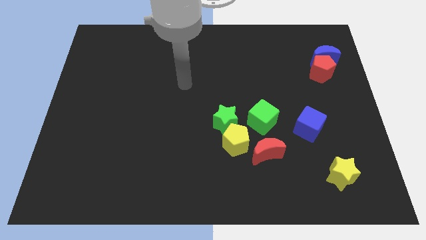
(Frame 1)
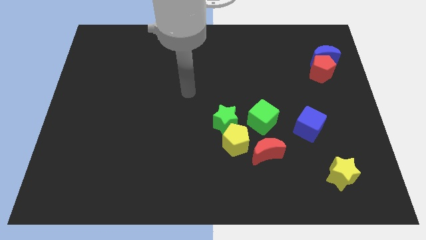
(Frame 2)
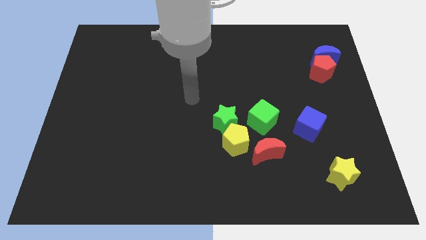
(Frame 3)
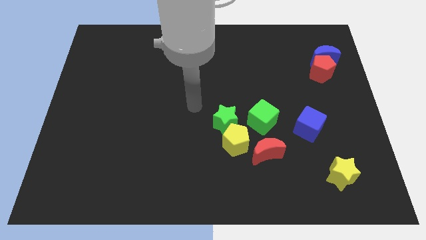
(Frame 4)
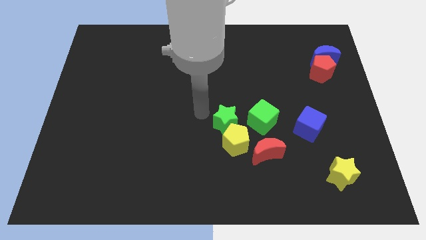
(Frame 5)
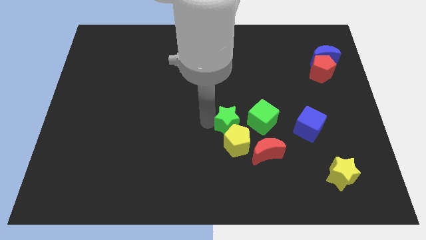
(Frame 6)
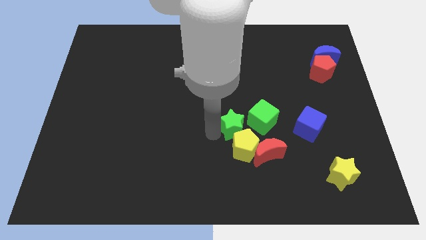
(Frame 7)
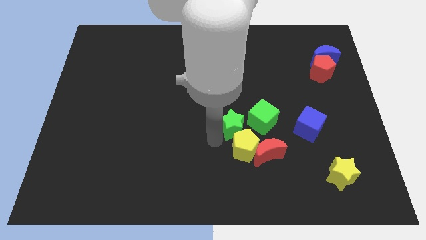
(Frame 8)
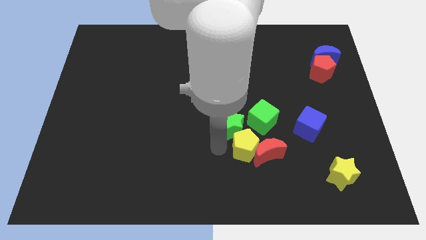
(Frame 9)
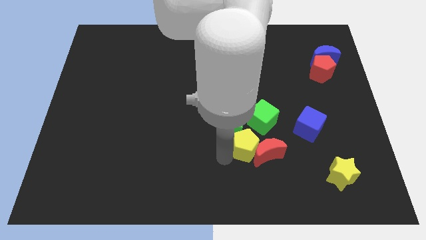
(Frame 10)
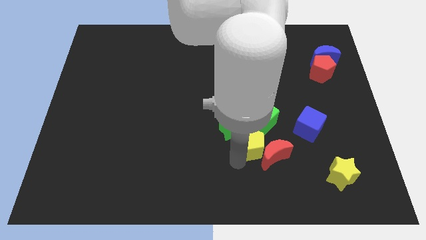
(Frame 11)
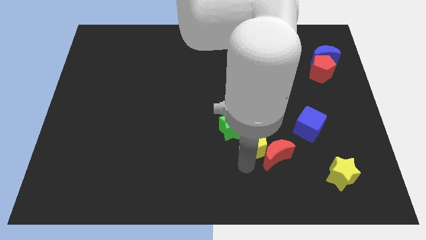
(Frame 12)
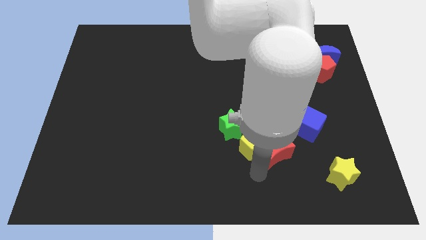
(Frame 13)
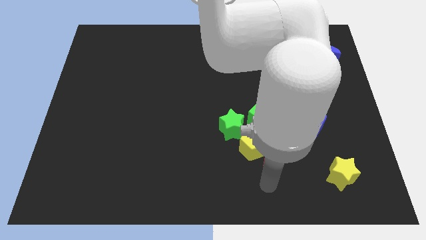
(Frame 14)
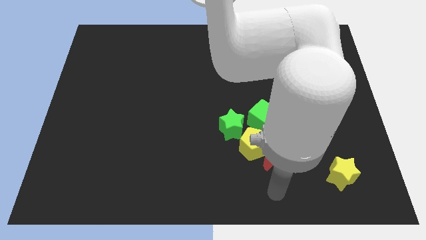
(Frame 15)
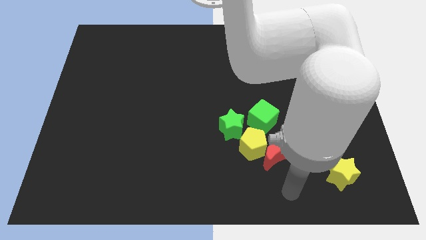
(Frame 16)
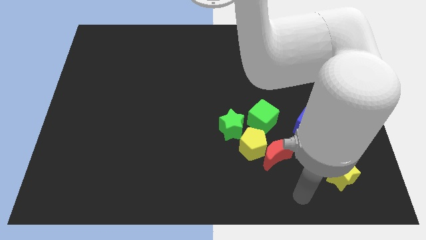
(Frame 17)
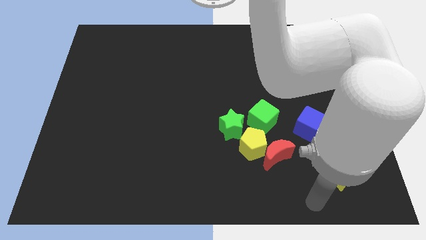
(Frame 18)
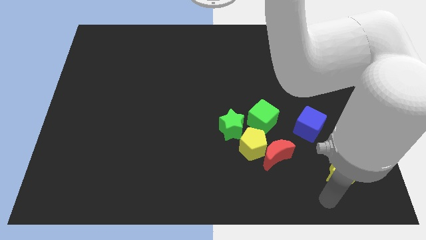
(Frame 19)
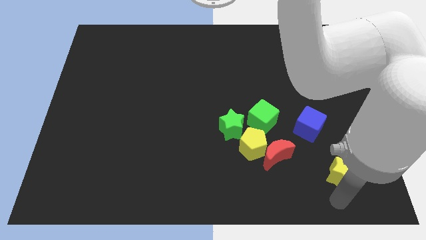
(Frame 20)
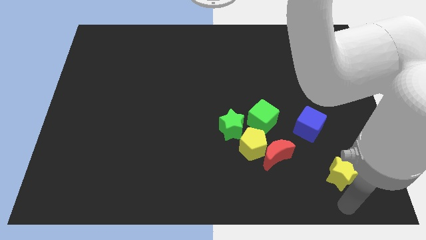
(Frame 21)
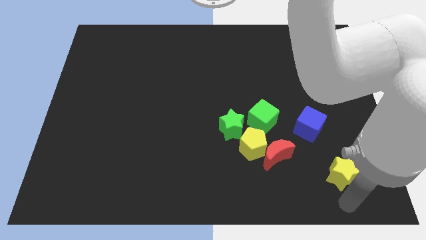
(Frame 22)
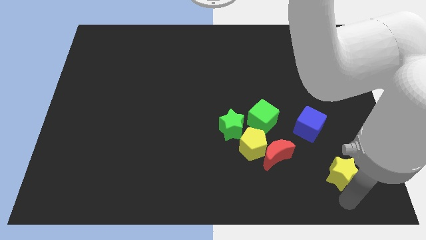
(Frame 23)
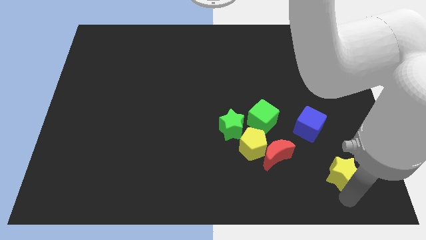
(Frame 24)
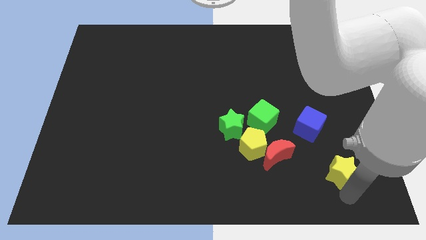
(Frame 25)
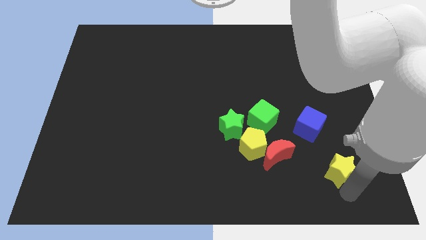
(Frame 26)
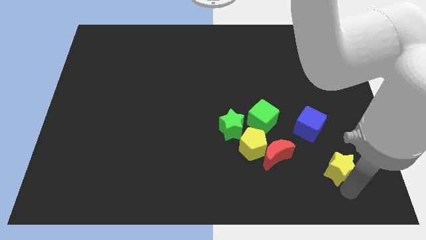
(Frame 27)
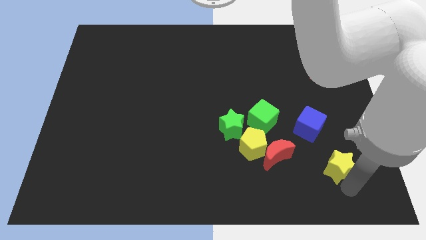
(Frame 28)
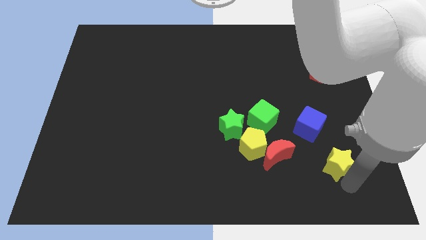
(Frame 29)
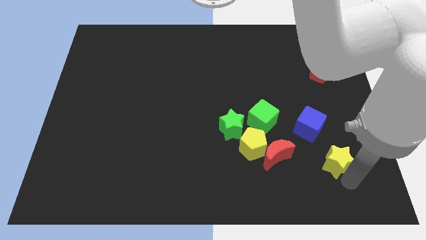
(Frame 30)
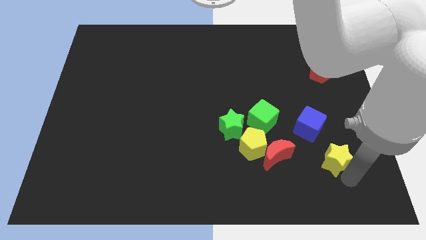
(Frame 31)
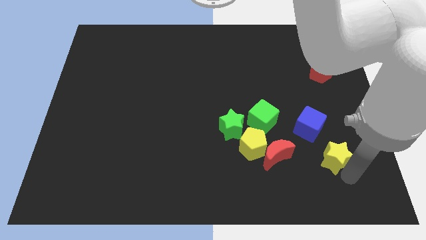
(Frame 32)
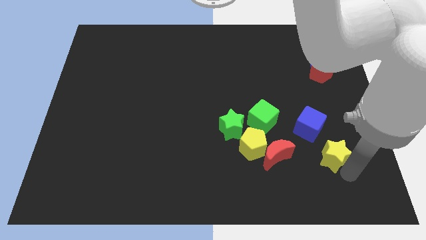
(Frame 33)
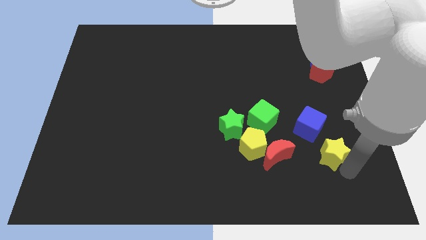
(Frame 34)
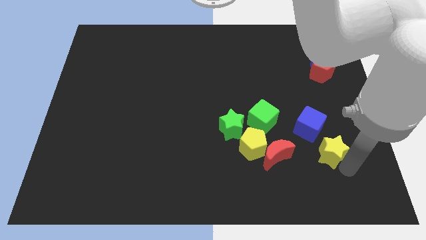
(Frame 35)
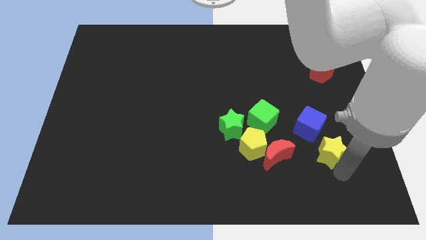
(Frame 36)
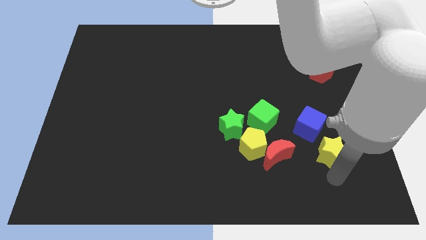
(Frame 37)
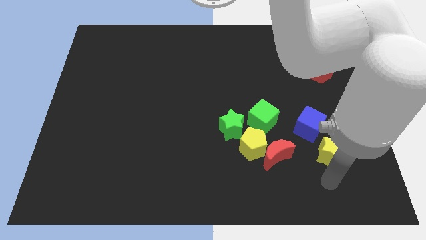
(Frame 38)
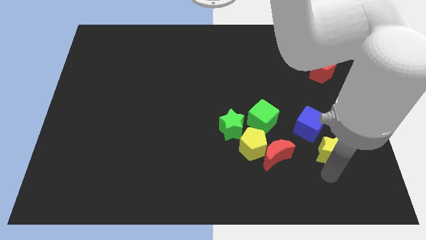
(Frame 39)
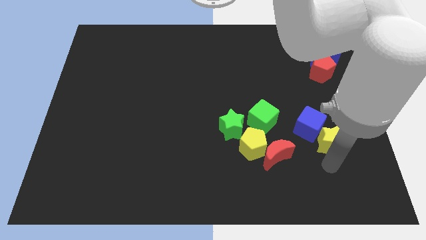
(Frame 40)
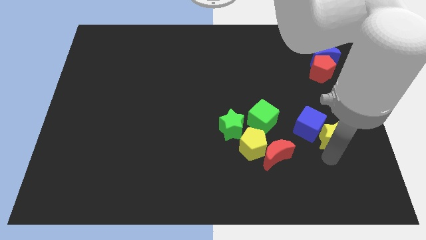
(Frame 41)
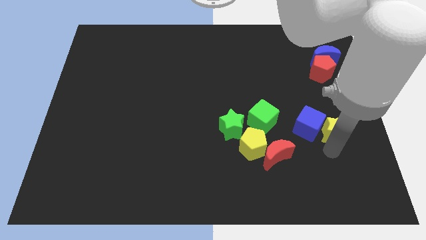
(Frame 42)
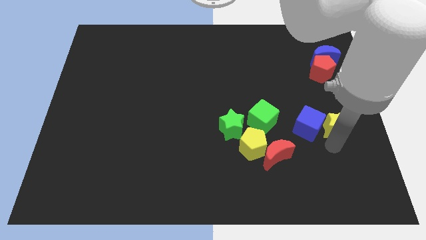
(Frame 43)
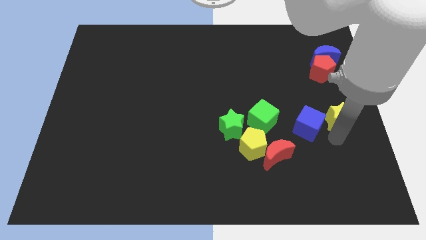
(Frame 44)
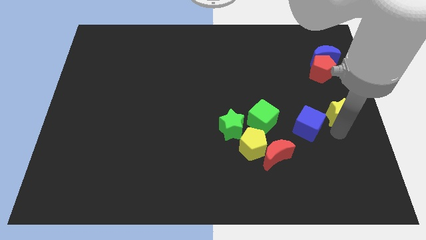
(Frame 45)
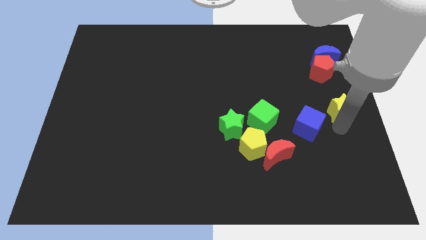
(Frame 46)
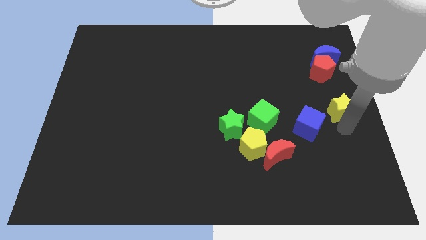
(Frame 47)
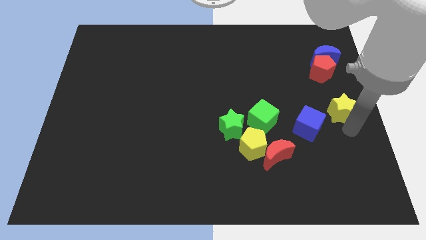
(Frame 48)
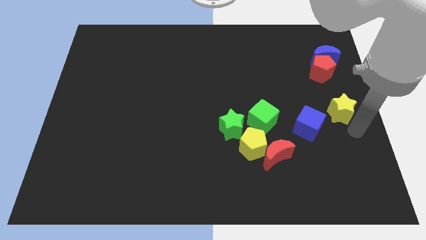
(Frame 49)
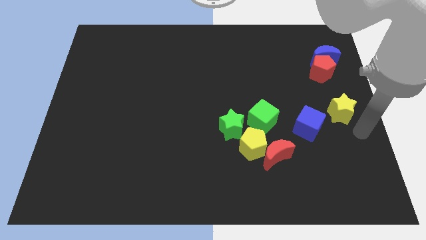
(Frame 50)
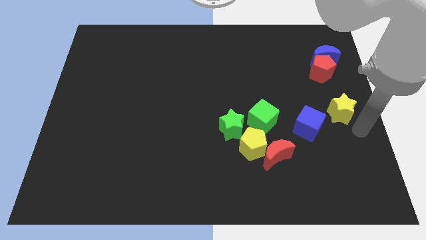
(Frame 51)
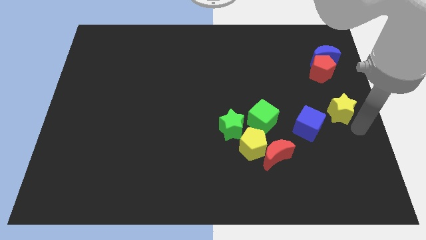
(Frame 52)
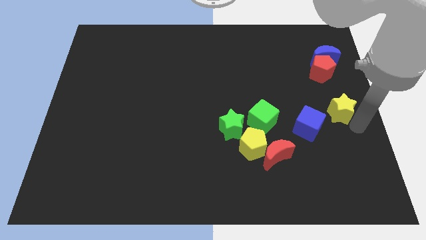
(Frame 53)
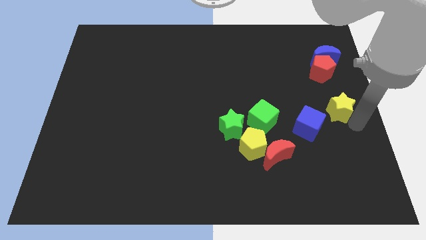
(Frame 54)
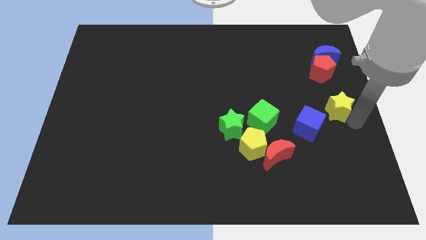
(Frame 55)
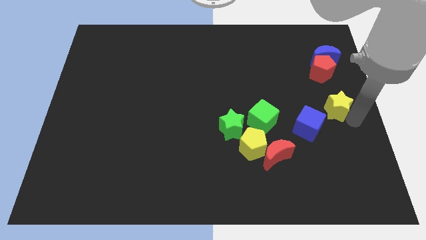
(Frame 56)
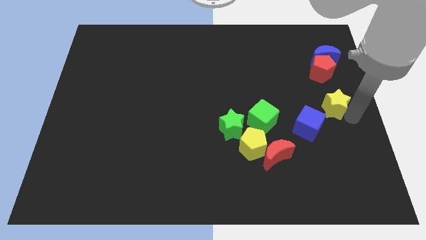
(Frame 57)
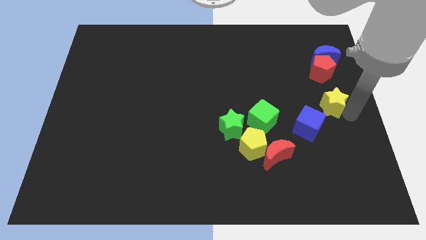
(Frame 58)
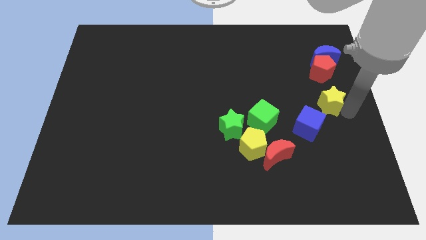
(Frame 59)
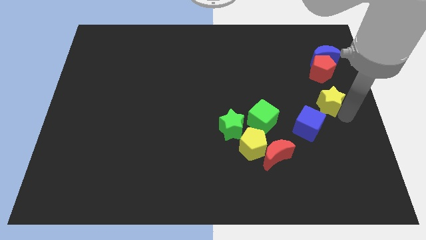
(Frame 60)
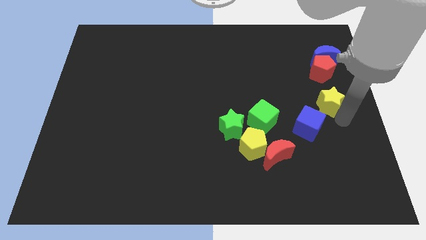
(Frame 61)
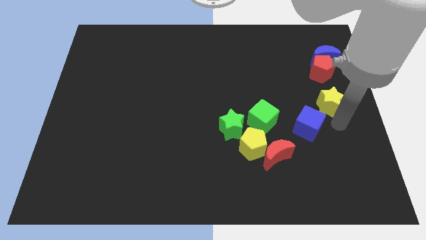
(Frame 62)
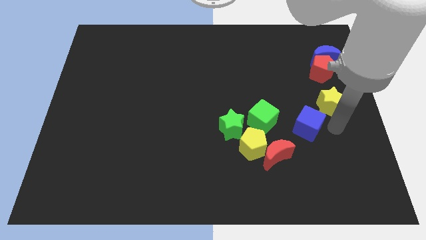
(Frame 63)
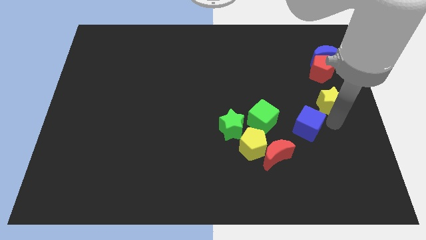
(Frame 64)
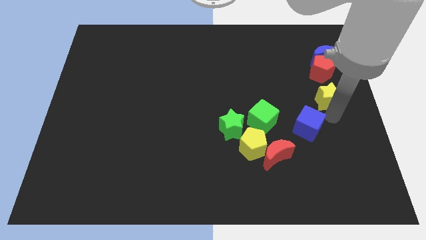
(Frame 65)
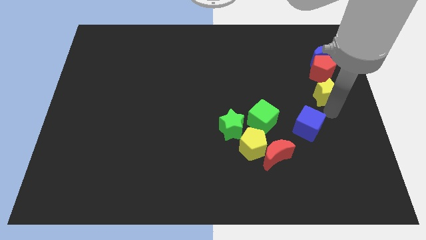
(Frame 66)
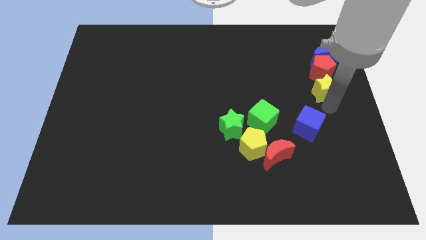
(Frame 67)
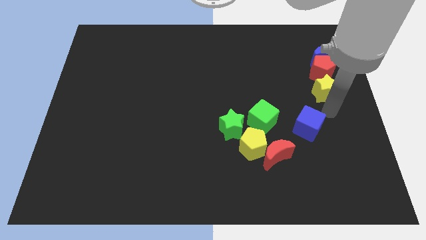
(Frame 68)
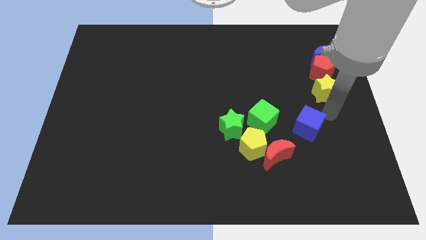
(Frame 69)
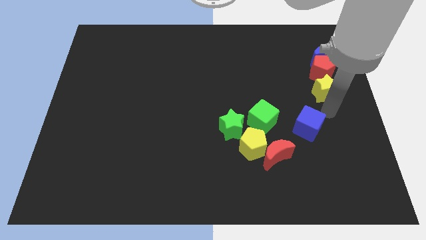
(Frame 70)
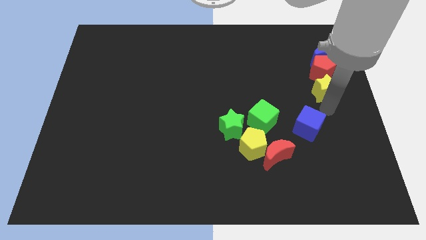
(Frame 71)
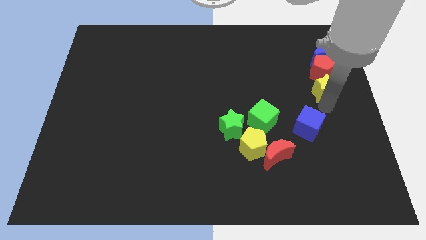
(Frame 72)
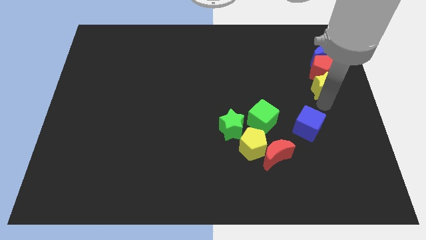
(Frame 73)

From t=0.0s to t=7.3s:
put the yellow star next to the red pentagon
